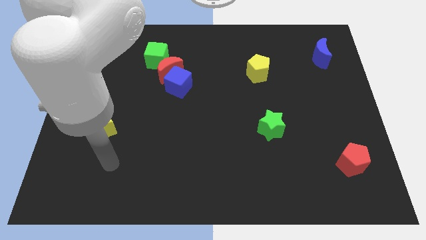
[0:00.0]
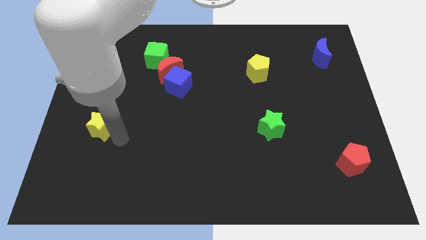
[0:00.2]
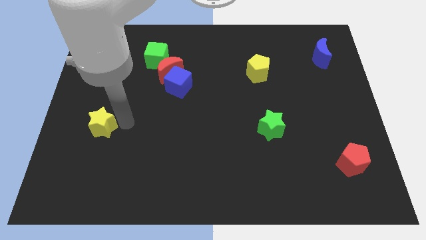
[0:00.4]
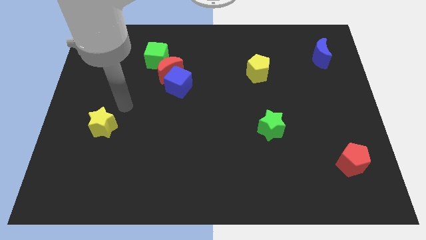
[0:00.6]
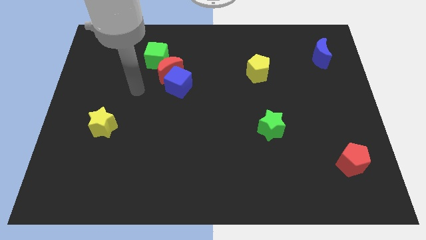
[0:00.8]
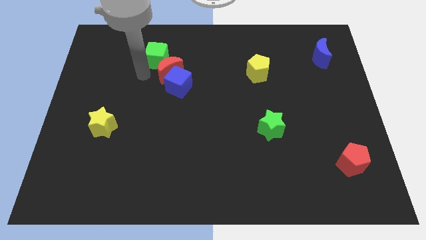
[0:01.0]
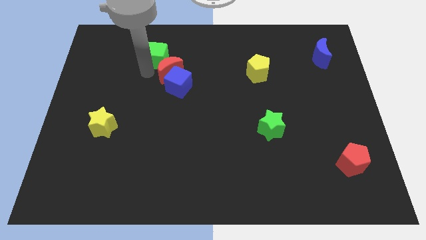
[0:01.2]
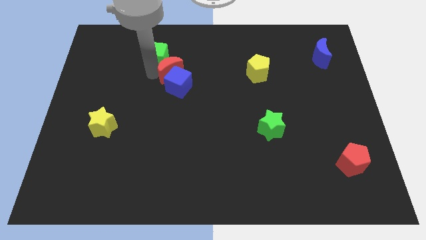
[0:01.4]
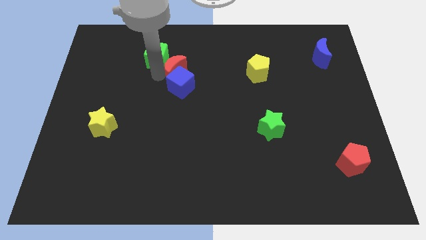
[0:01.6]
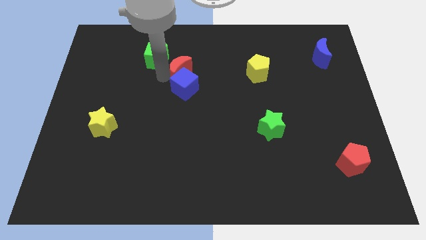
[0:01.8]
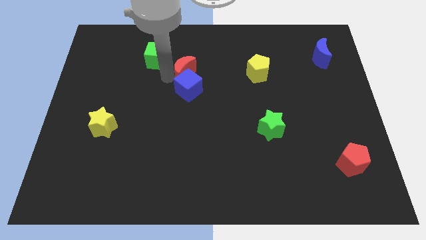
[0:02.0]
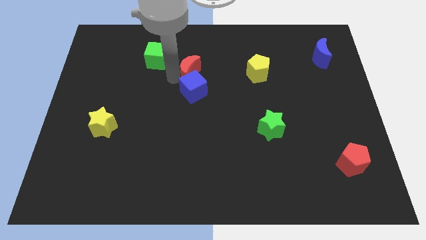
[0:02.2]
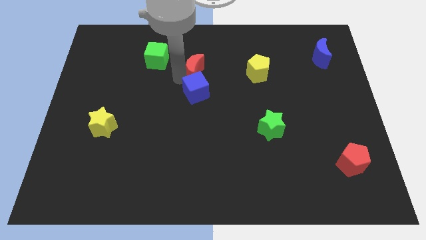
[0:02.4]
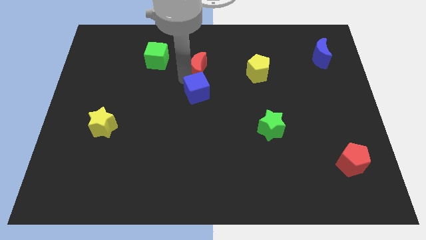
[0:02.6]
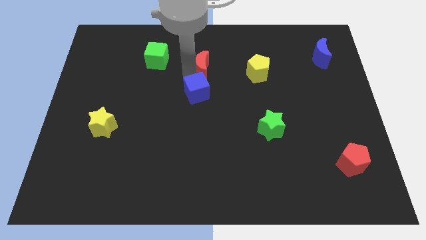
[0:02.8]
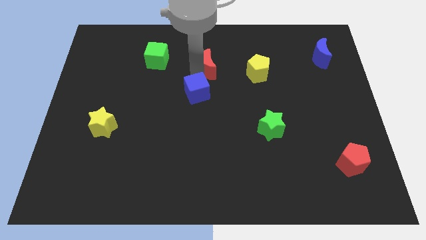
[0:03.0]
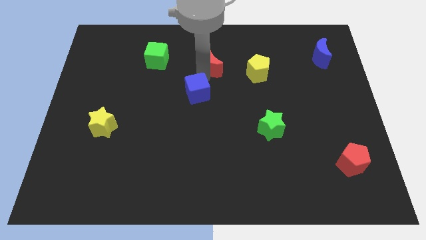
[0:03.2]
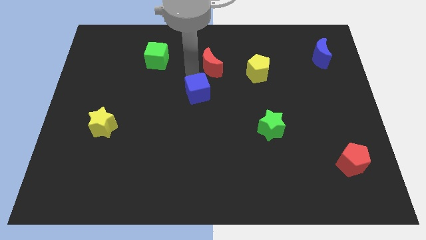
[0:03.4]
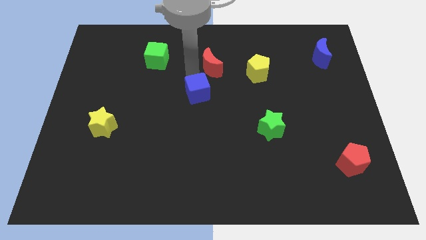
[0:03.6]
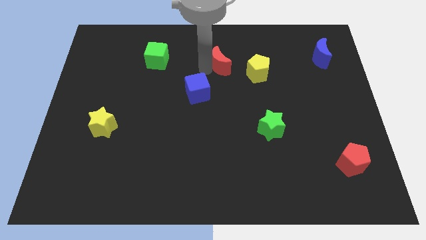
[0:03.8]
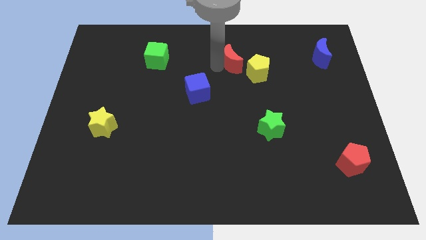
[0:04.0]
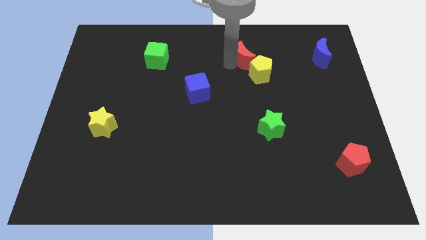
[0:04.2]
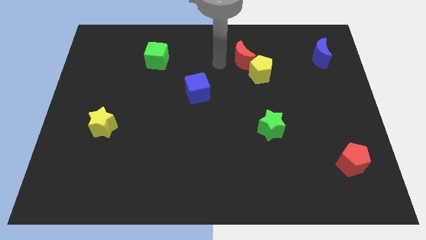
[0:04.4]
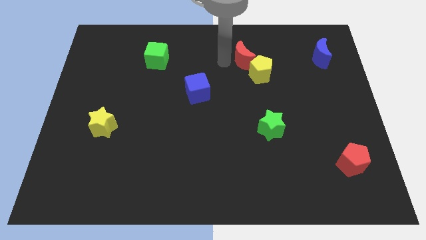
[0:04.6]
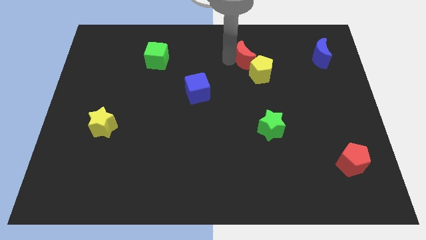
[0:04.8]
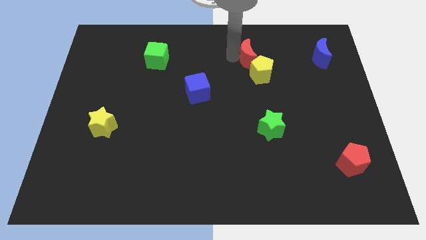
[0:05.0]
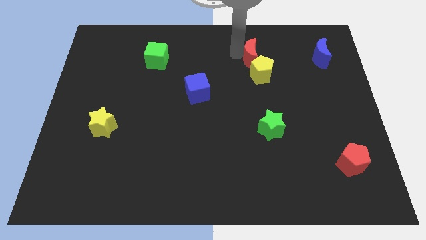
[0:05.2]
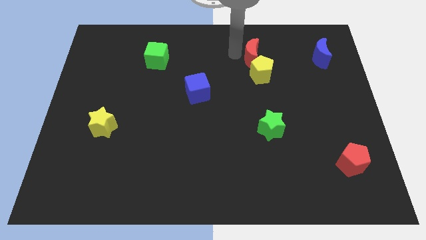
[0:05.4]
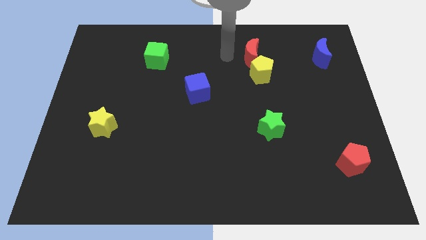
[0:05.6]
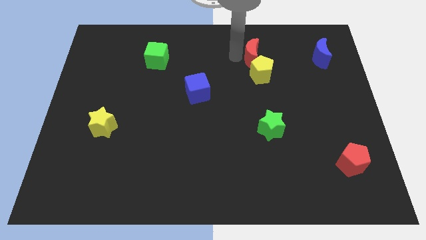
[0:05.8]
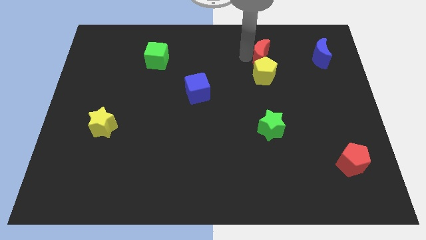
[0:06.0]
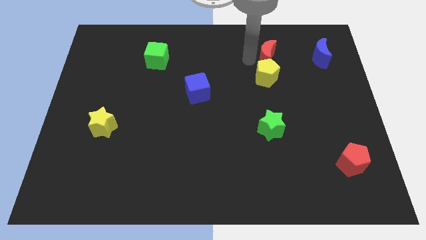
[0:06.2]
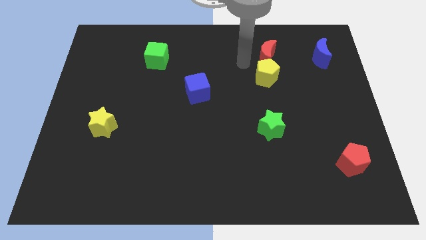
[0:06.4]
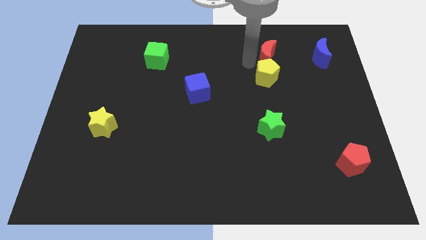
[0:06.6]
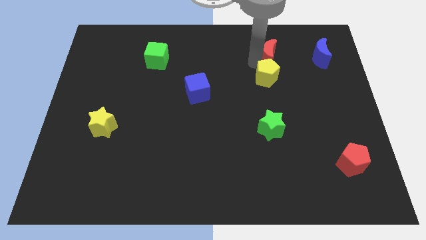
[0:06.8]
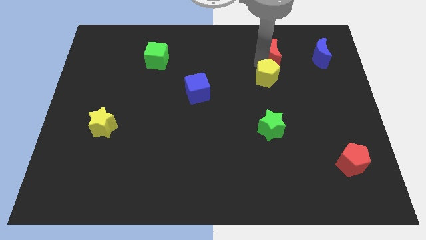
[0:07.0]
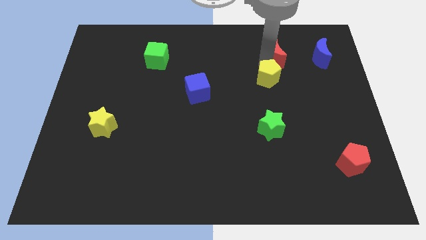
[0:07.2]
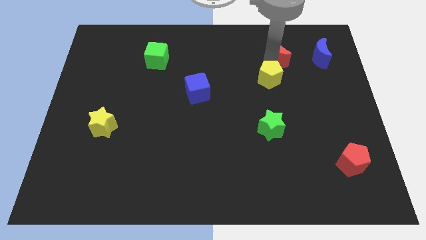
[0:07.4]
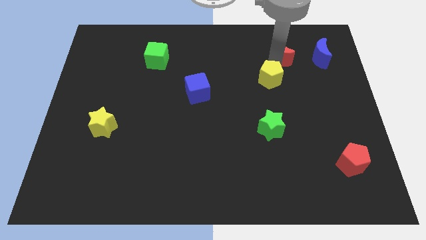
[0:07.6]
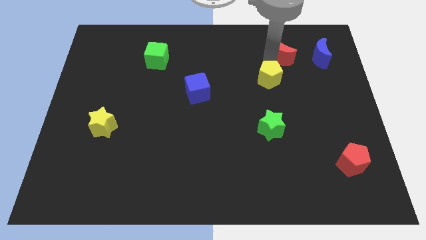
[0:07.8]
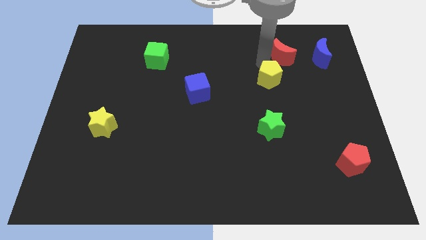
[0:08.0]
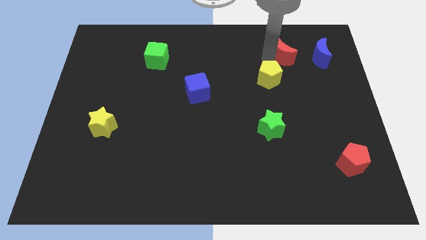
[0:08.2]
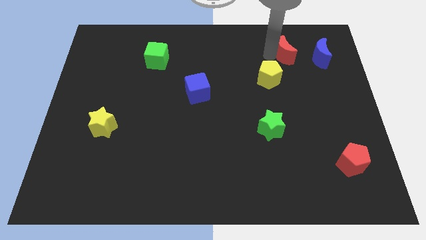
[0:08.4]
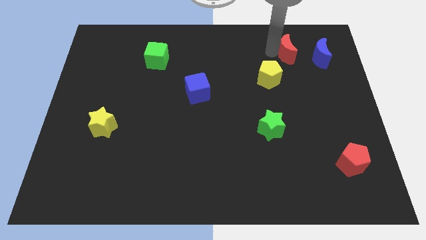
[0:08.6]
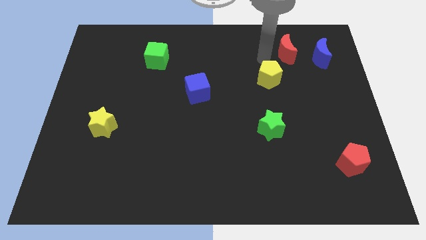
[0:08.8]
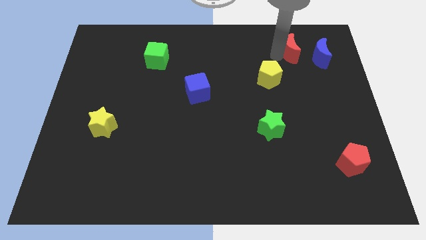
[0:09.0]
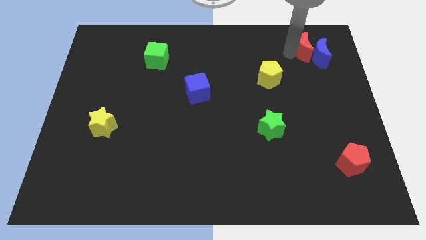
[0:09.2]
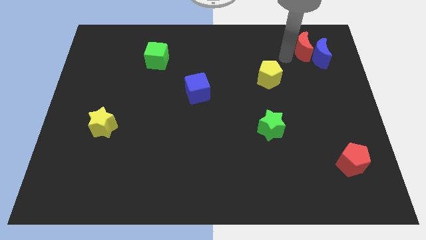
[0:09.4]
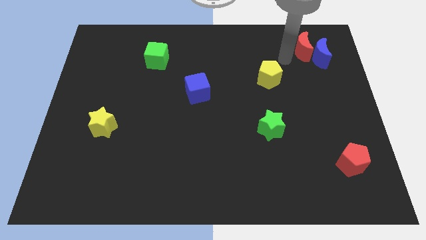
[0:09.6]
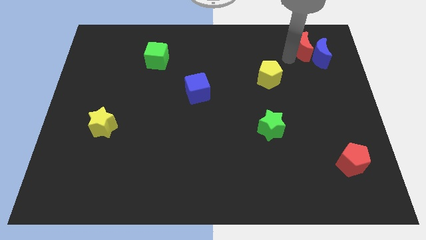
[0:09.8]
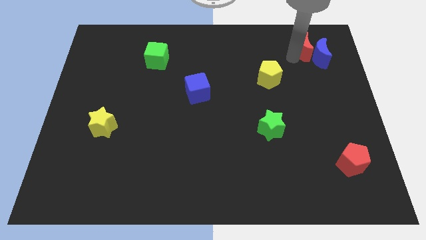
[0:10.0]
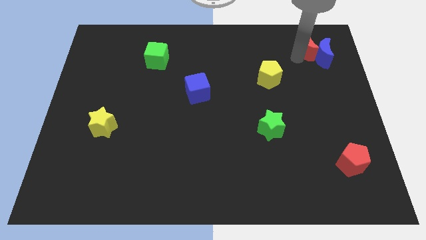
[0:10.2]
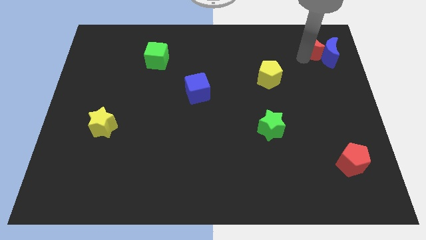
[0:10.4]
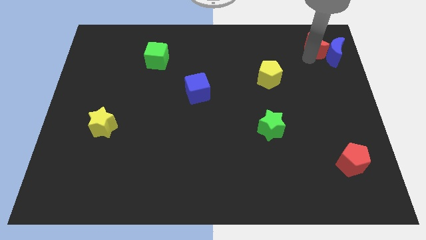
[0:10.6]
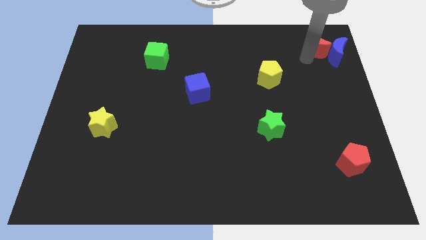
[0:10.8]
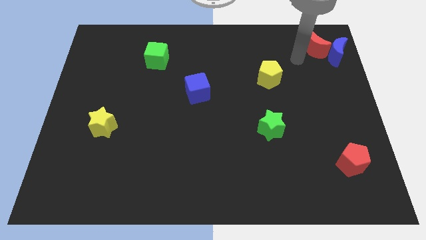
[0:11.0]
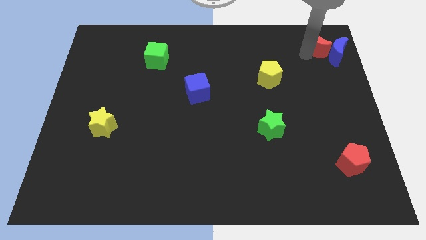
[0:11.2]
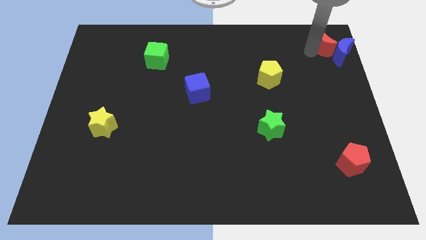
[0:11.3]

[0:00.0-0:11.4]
slide the red moon to the top right

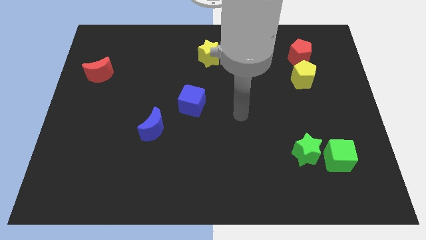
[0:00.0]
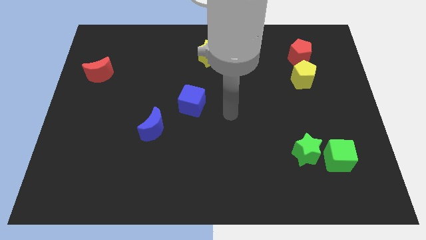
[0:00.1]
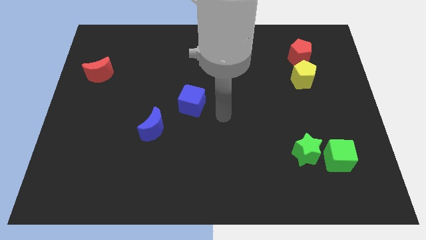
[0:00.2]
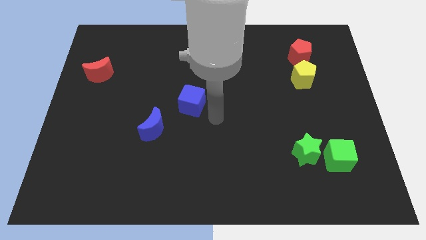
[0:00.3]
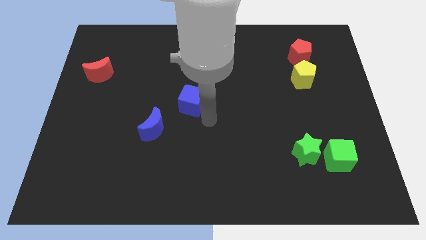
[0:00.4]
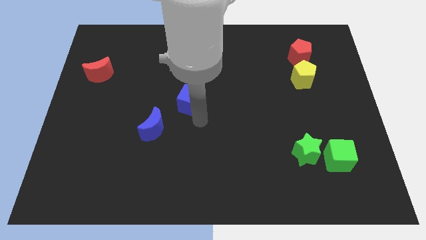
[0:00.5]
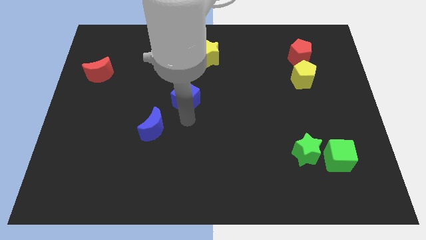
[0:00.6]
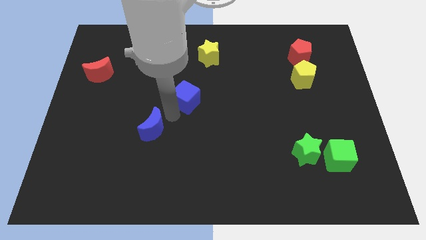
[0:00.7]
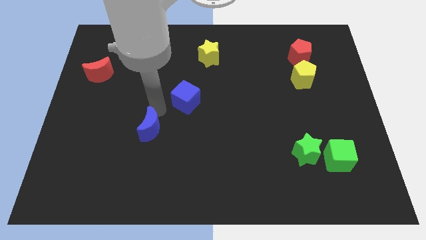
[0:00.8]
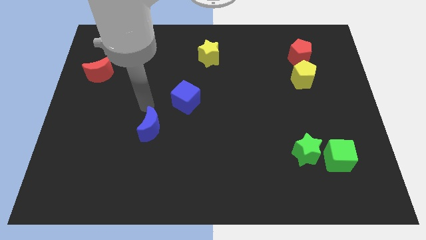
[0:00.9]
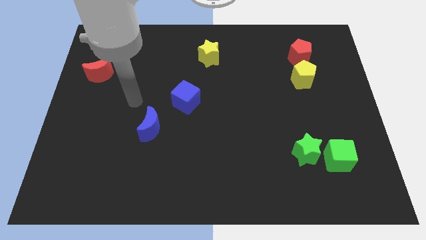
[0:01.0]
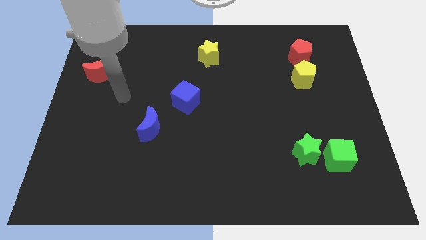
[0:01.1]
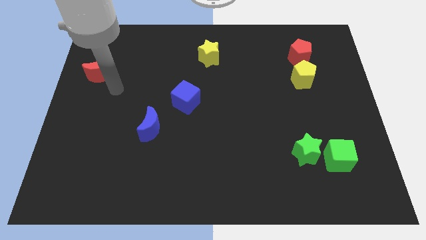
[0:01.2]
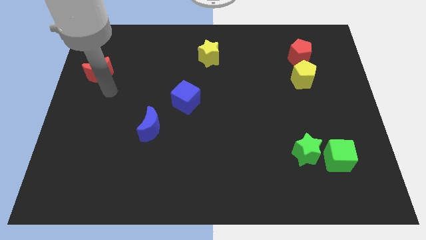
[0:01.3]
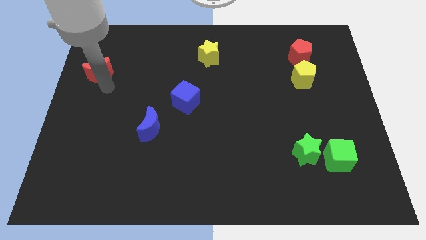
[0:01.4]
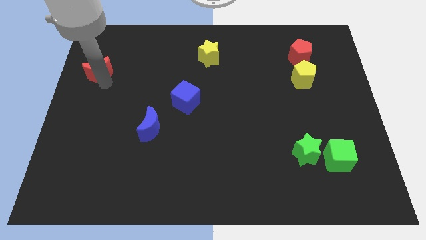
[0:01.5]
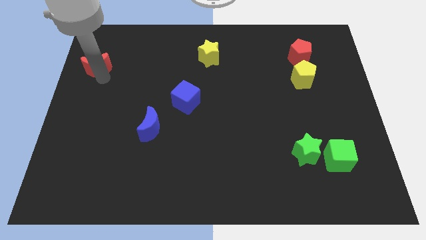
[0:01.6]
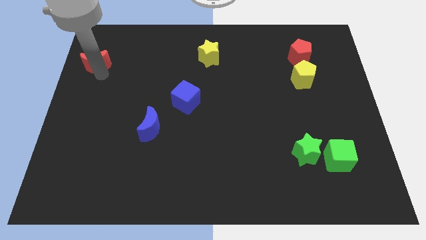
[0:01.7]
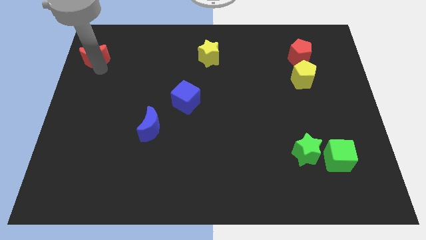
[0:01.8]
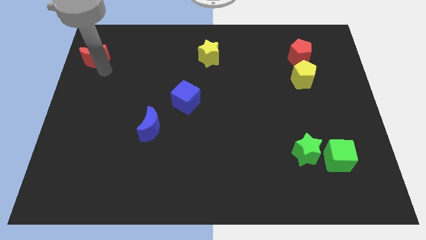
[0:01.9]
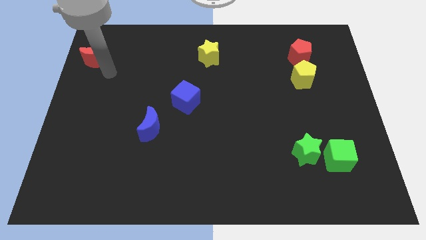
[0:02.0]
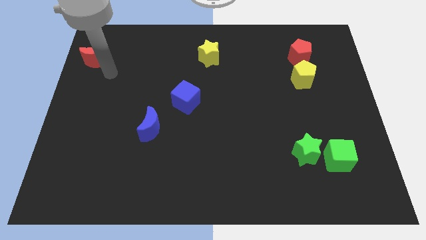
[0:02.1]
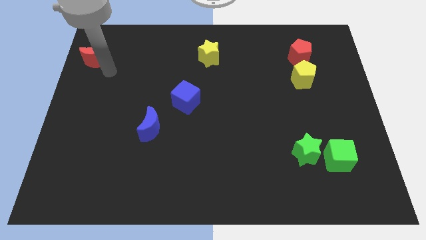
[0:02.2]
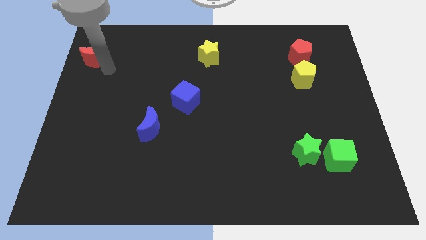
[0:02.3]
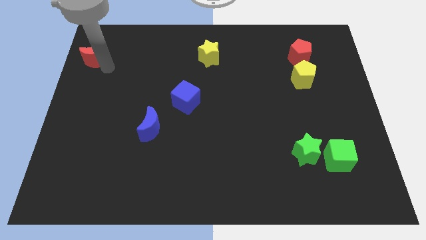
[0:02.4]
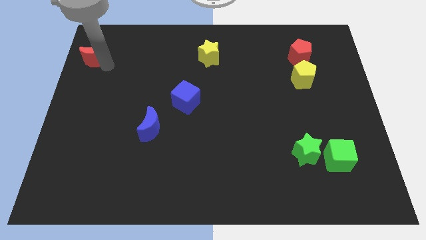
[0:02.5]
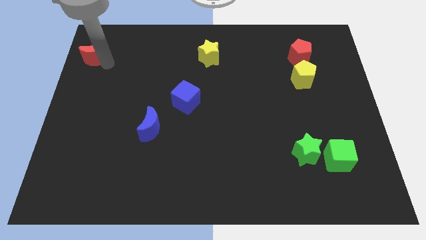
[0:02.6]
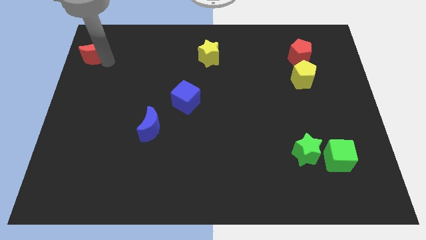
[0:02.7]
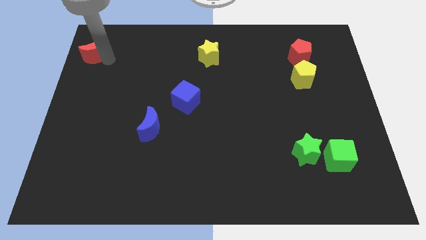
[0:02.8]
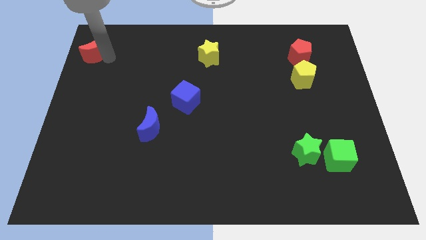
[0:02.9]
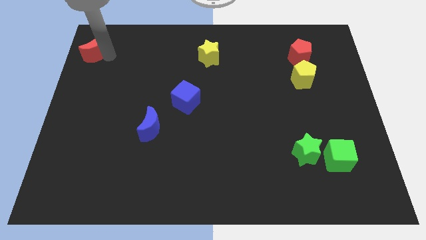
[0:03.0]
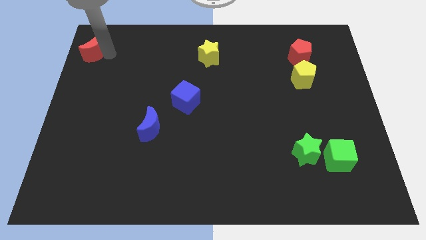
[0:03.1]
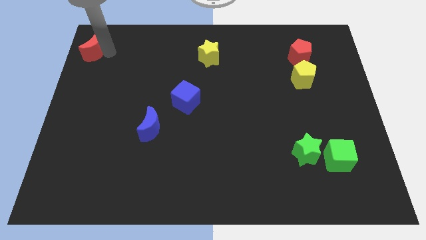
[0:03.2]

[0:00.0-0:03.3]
slide the red moon to the top left of the board
